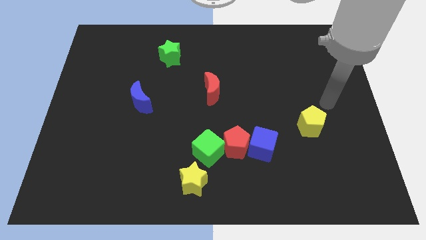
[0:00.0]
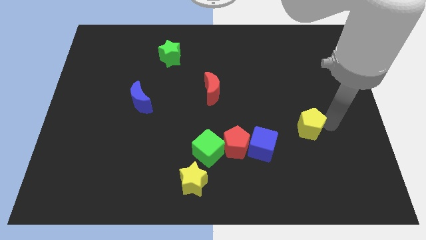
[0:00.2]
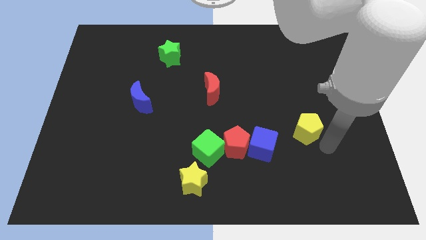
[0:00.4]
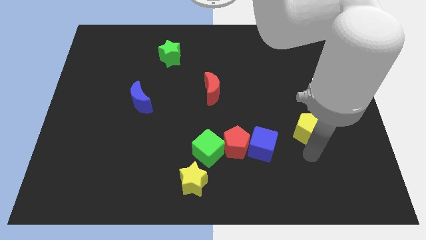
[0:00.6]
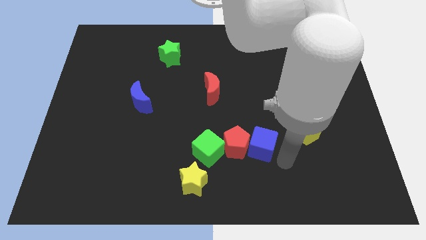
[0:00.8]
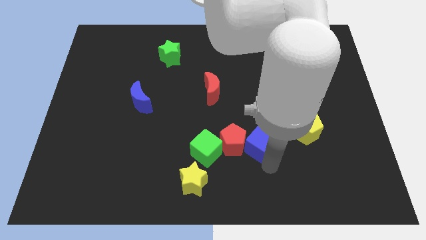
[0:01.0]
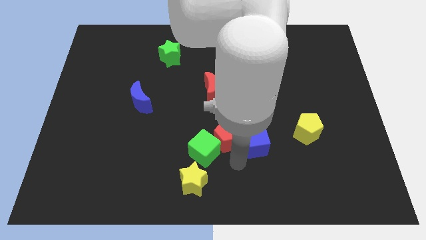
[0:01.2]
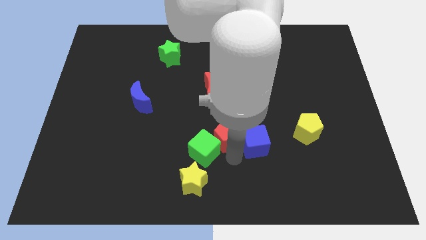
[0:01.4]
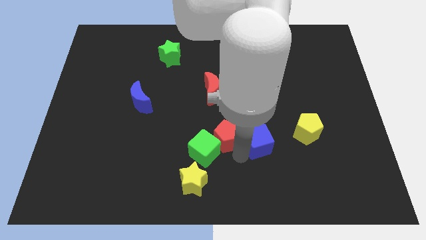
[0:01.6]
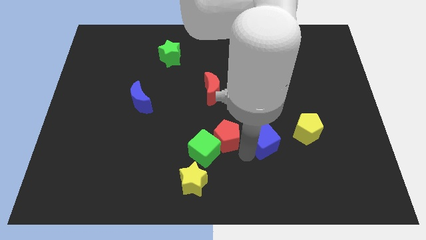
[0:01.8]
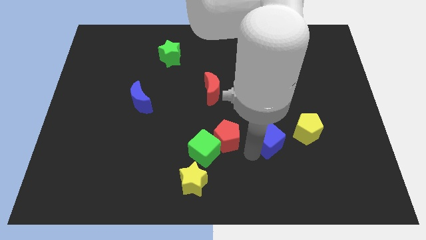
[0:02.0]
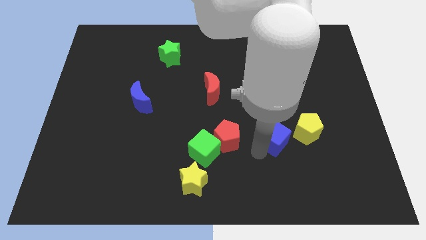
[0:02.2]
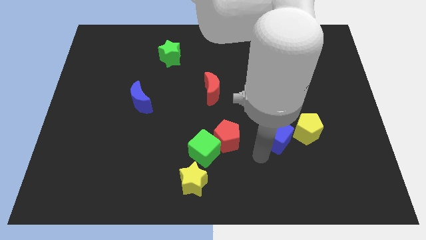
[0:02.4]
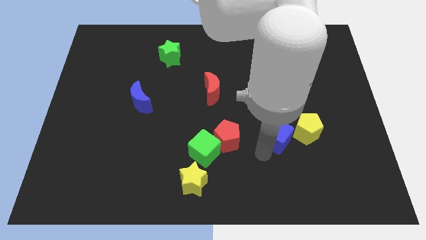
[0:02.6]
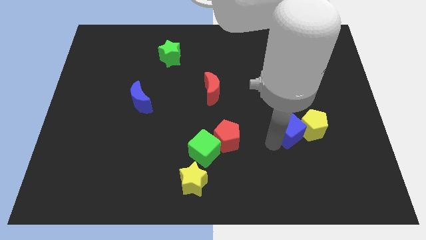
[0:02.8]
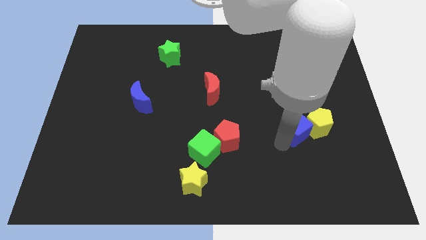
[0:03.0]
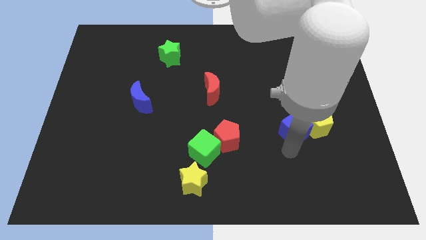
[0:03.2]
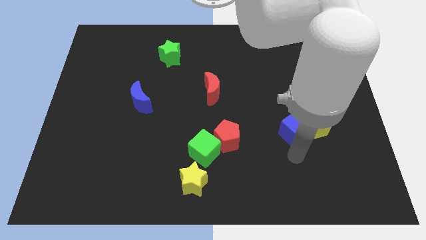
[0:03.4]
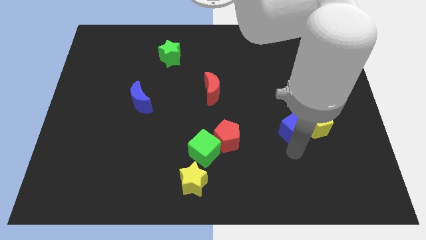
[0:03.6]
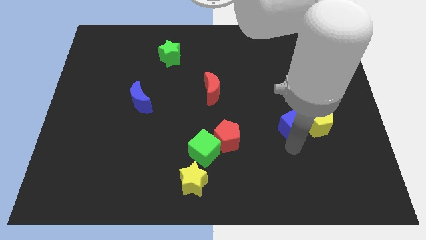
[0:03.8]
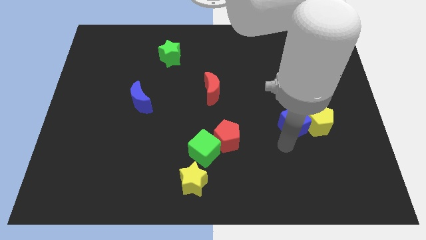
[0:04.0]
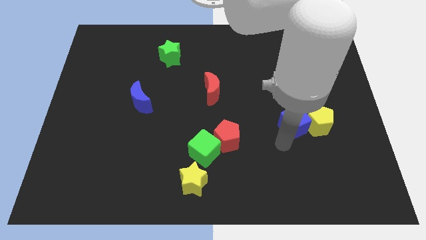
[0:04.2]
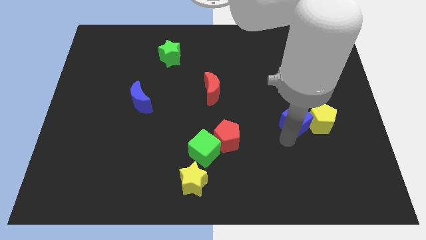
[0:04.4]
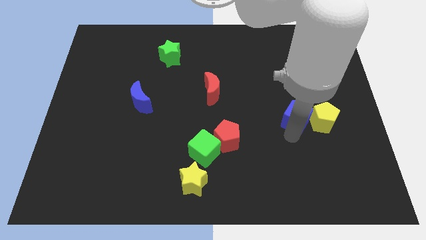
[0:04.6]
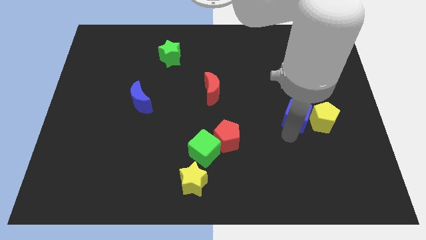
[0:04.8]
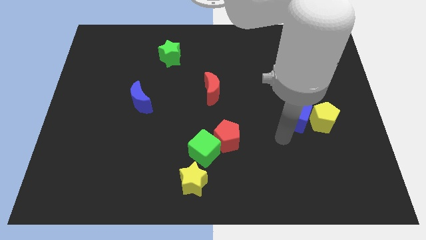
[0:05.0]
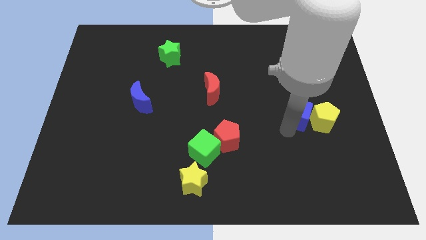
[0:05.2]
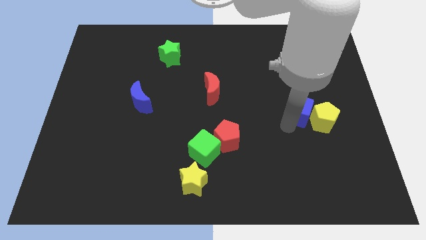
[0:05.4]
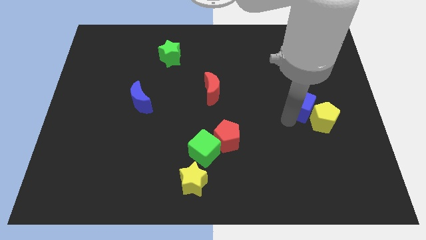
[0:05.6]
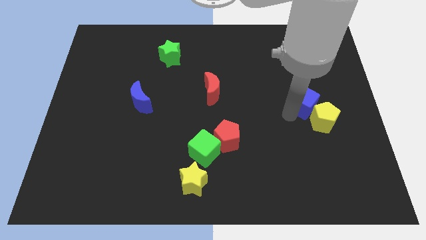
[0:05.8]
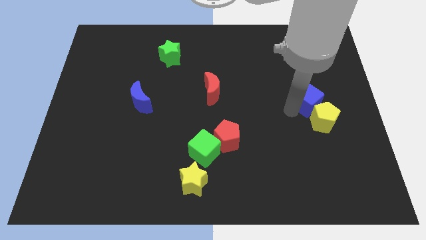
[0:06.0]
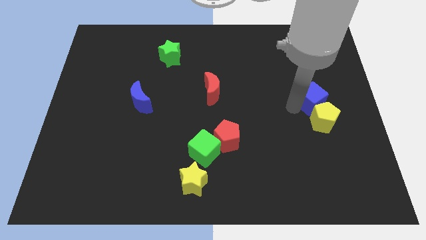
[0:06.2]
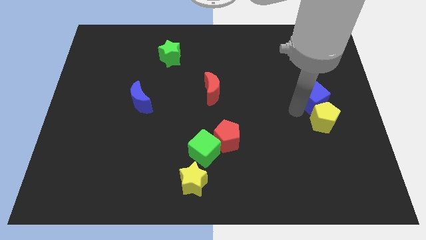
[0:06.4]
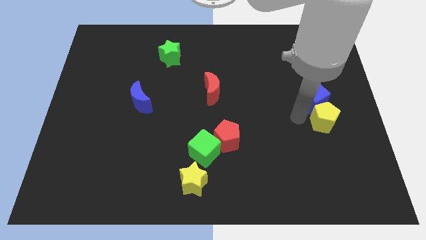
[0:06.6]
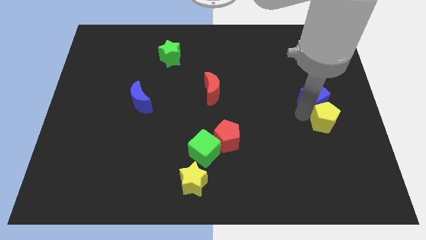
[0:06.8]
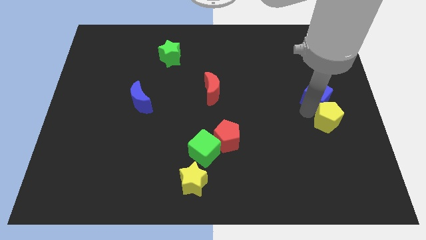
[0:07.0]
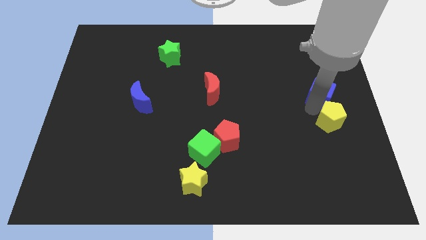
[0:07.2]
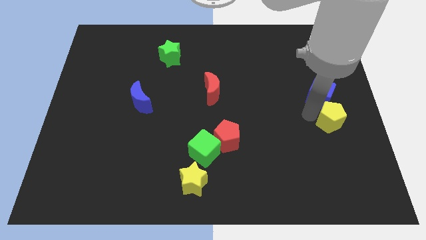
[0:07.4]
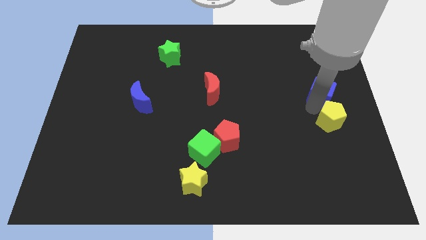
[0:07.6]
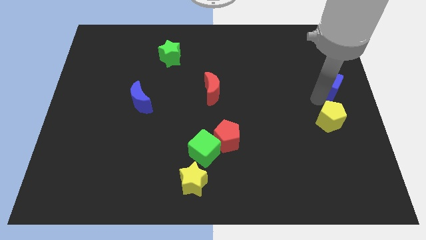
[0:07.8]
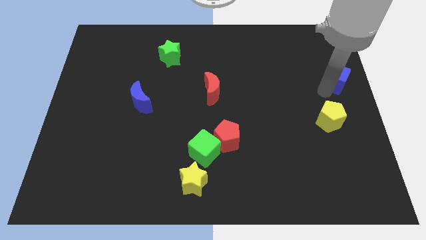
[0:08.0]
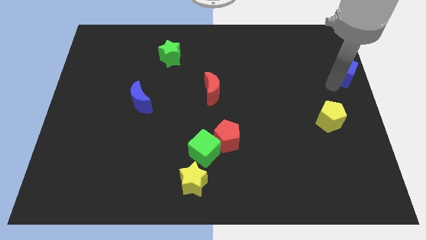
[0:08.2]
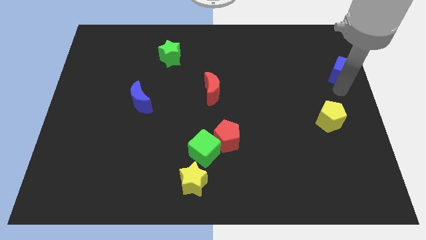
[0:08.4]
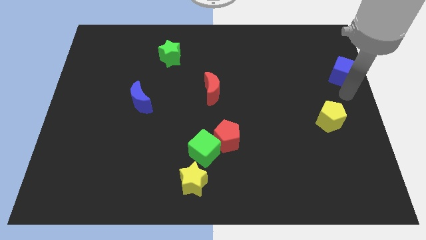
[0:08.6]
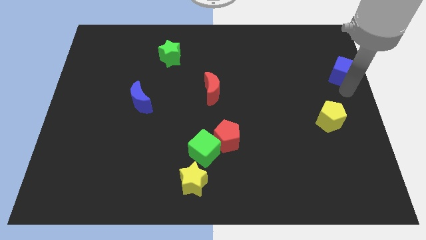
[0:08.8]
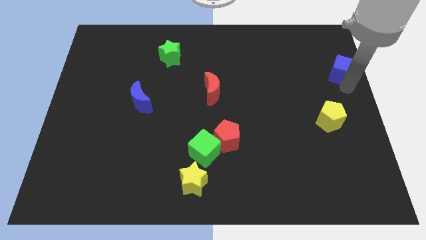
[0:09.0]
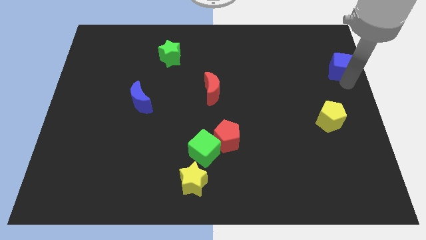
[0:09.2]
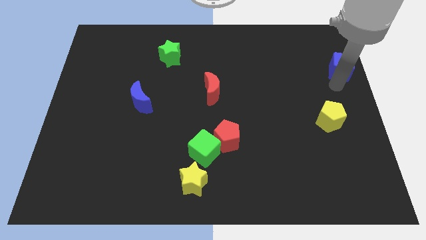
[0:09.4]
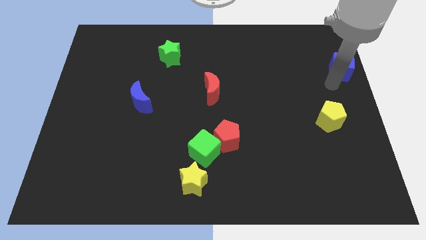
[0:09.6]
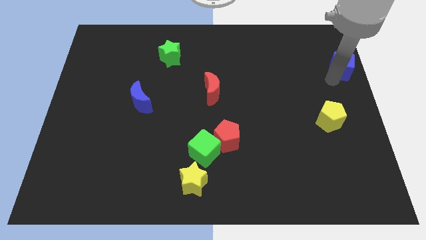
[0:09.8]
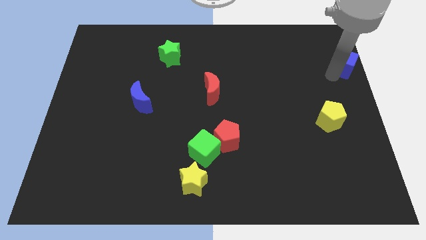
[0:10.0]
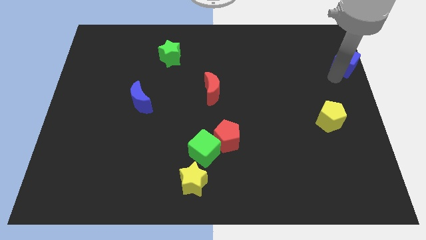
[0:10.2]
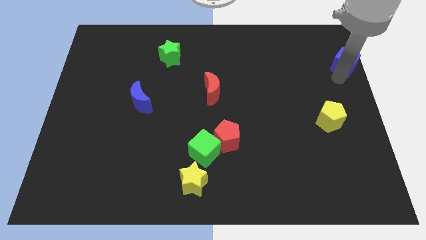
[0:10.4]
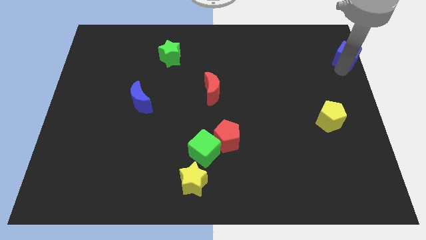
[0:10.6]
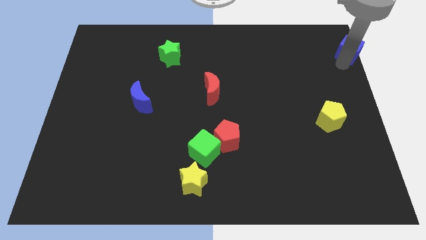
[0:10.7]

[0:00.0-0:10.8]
push the blue cube to the top right corner

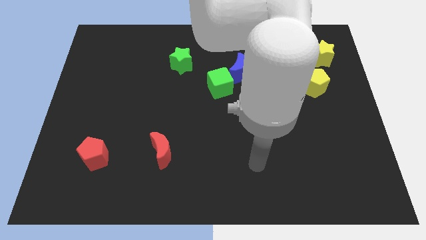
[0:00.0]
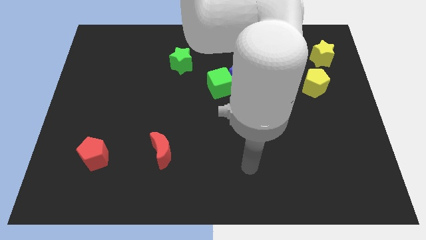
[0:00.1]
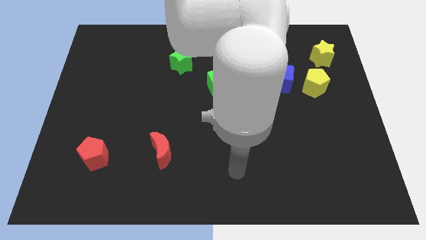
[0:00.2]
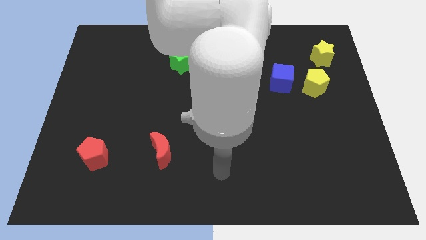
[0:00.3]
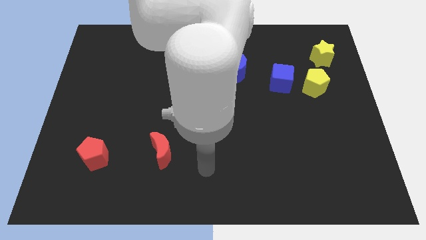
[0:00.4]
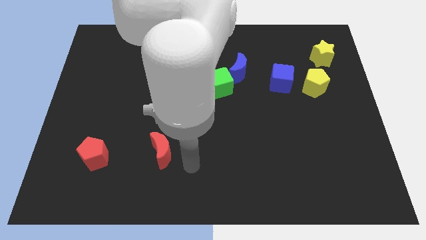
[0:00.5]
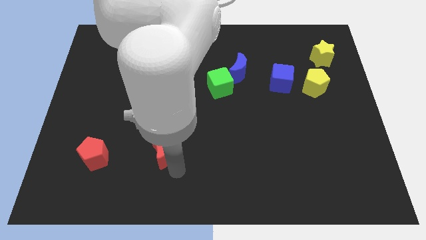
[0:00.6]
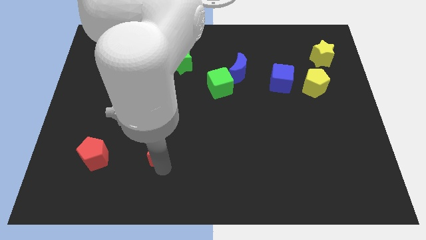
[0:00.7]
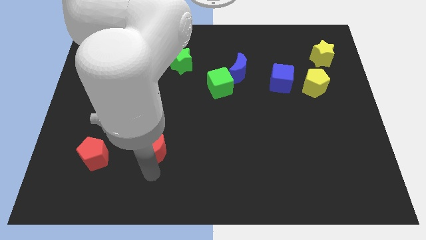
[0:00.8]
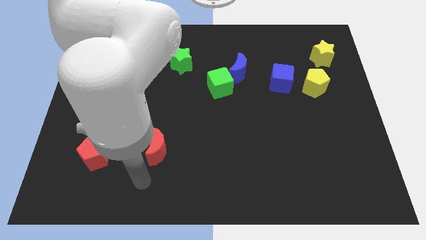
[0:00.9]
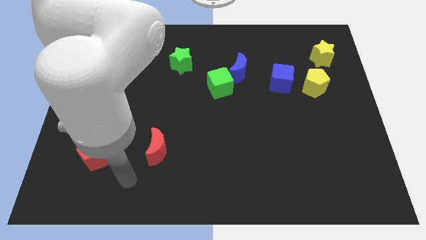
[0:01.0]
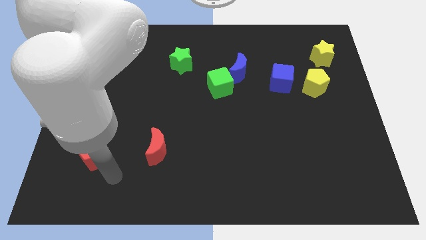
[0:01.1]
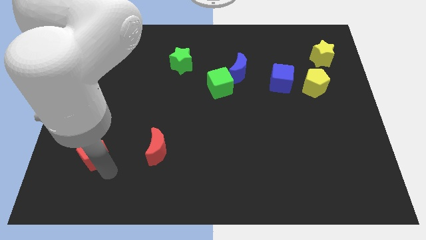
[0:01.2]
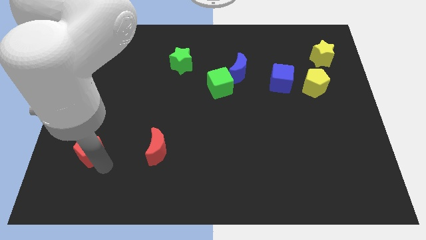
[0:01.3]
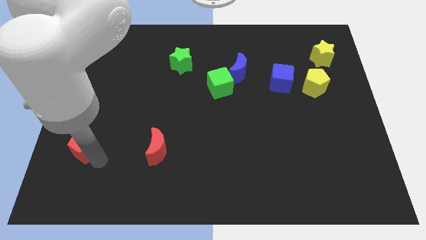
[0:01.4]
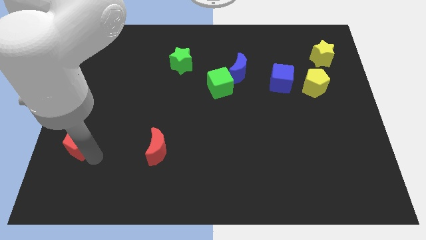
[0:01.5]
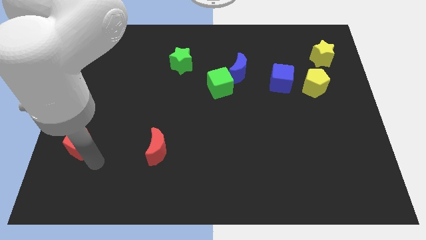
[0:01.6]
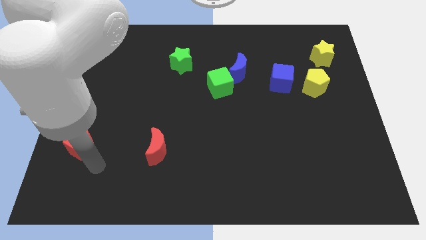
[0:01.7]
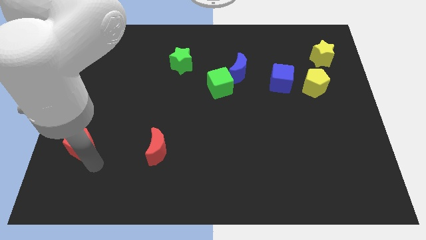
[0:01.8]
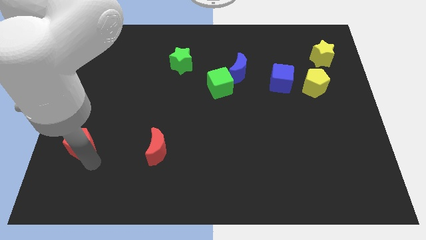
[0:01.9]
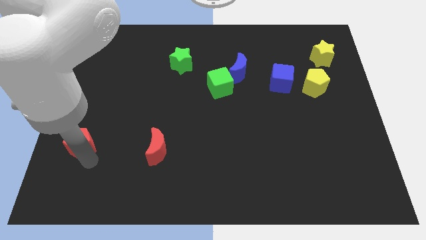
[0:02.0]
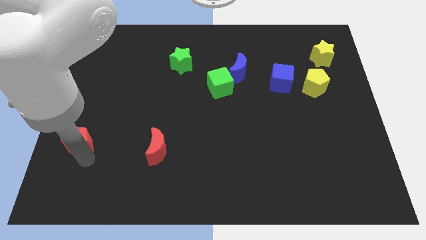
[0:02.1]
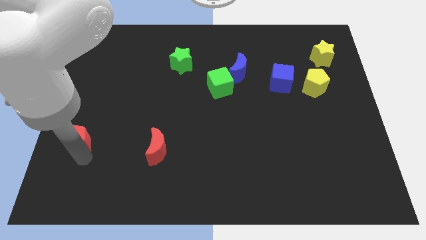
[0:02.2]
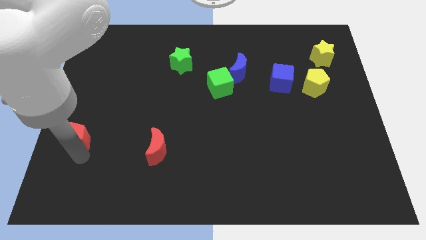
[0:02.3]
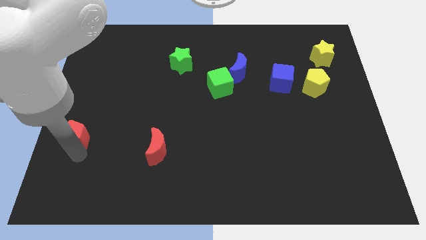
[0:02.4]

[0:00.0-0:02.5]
push the red pentagon to the center left
